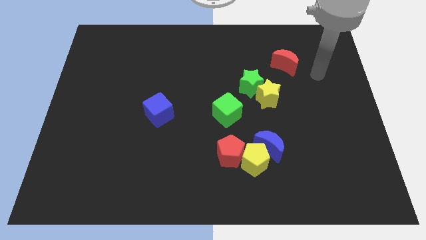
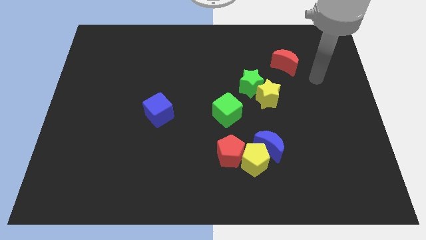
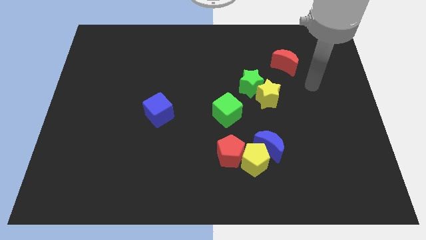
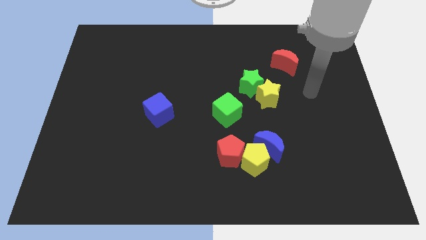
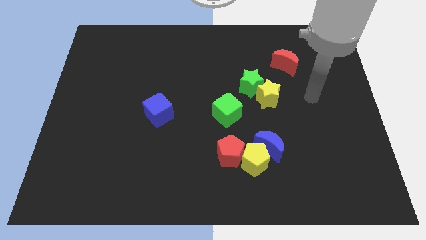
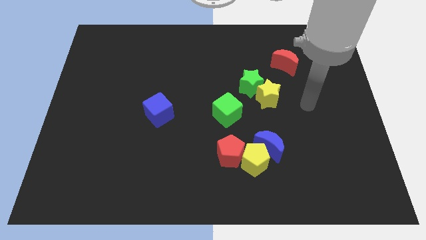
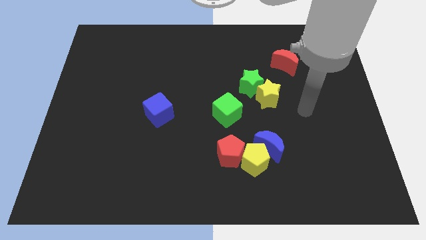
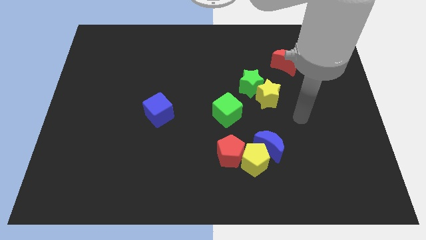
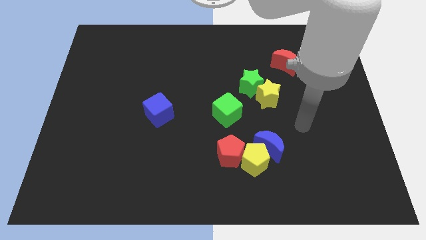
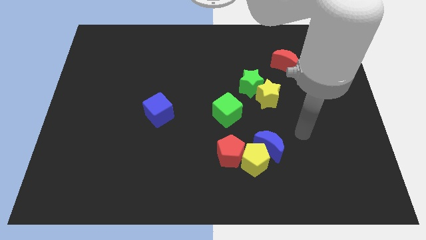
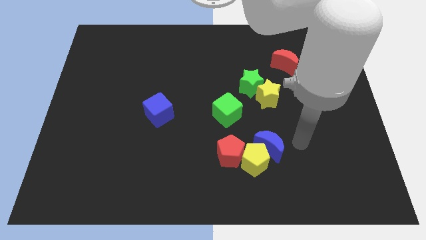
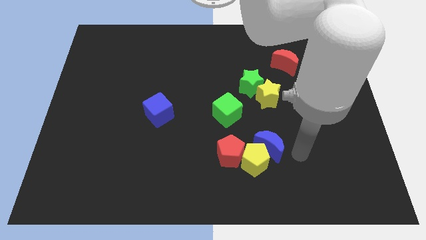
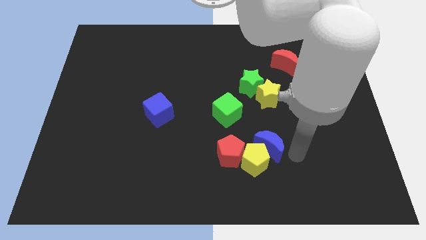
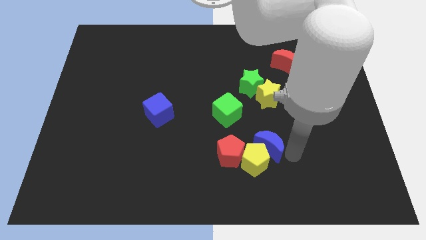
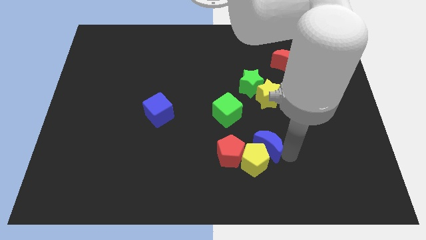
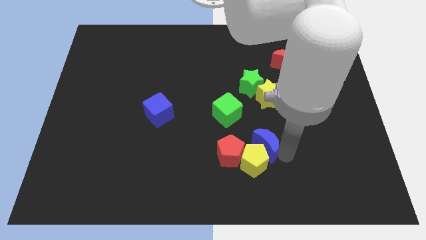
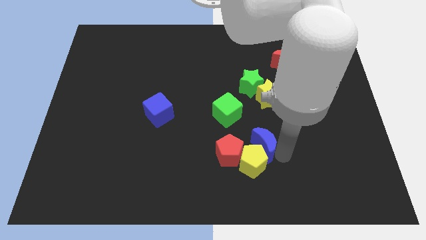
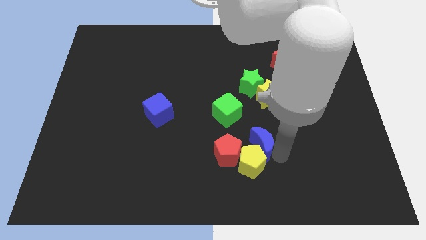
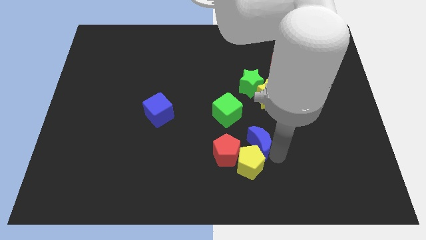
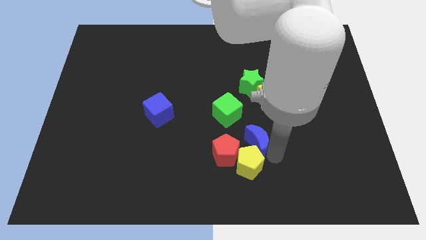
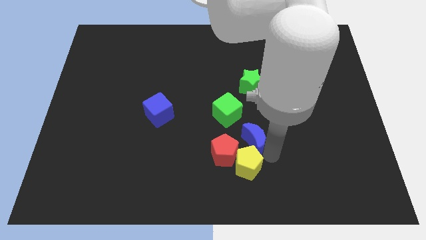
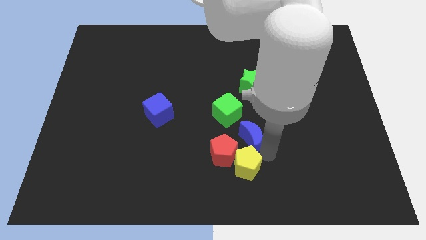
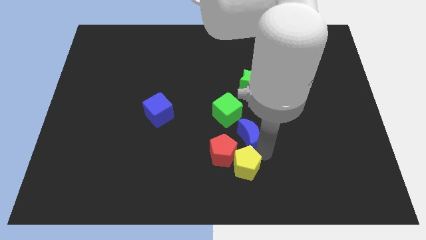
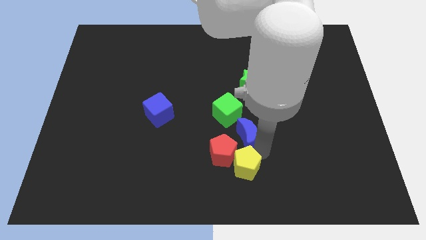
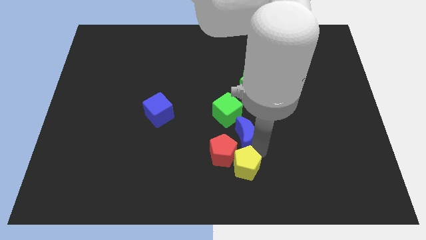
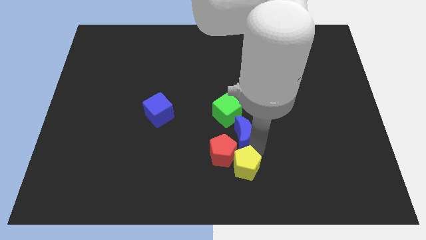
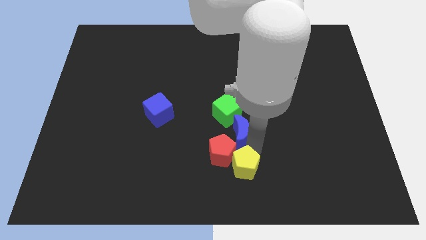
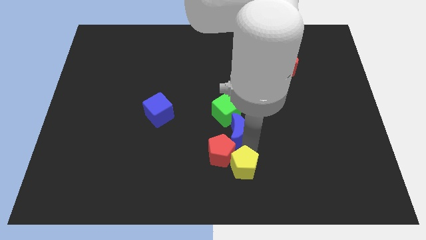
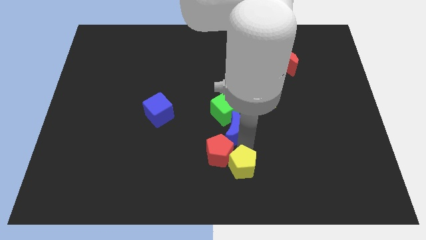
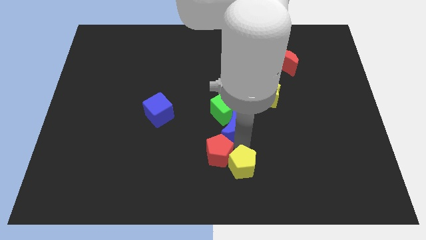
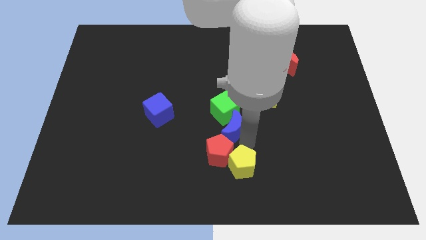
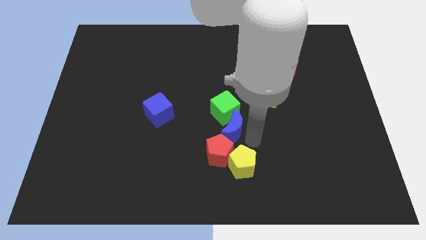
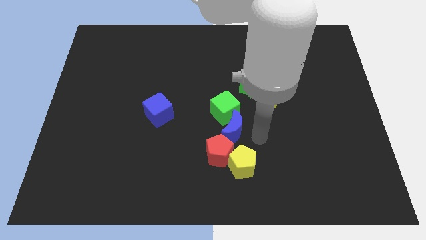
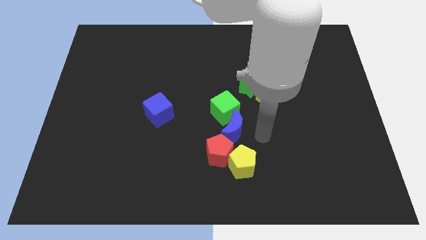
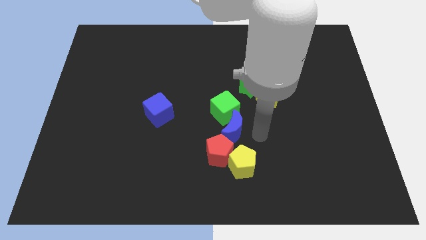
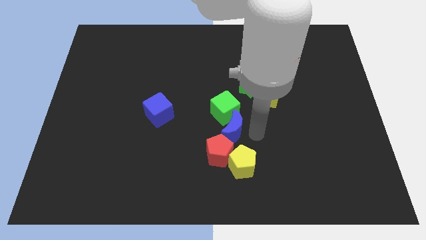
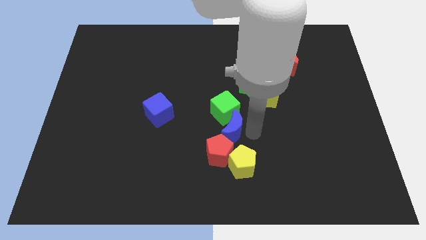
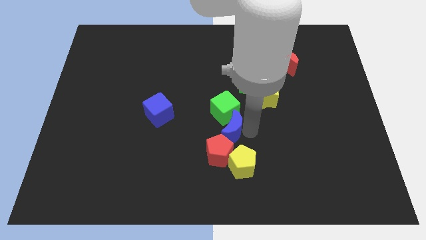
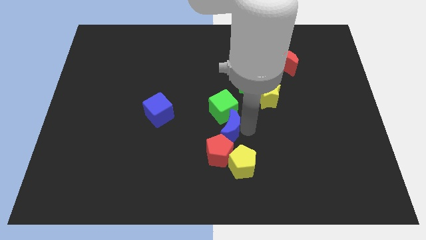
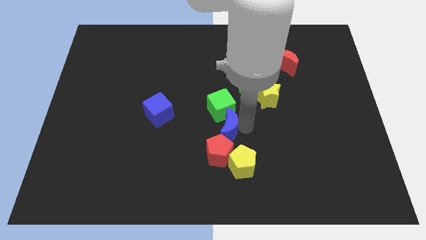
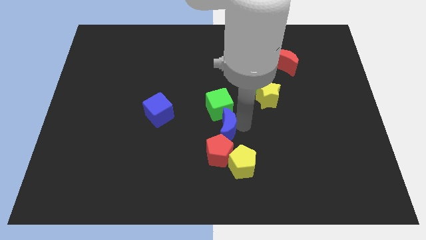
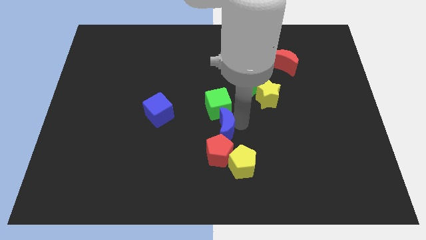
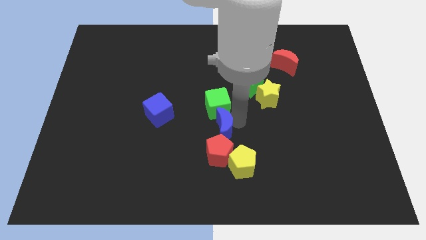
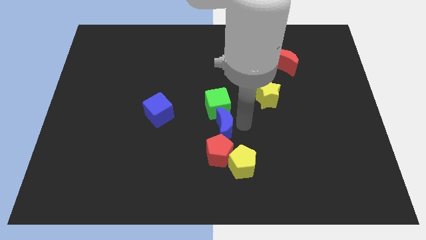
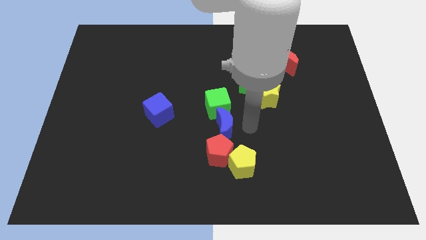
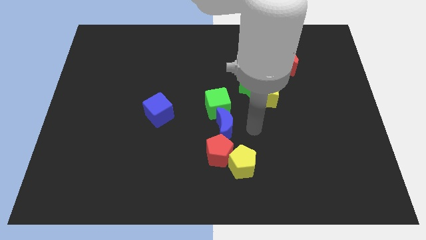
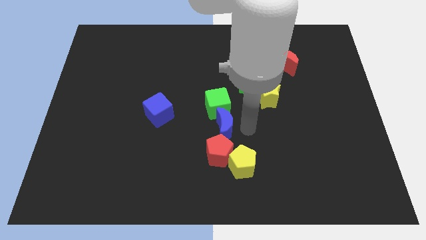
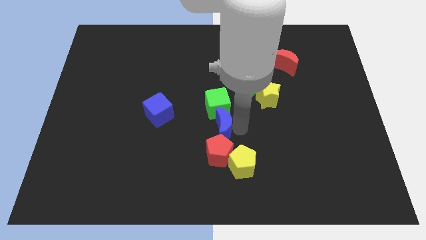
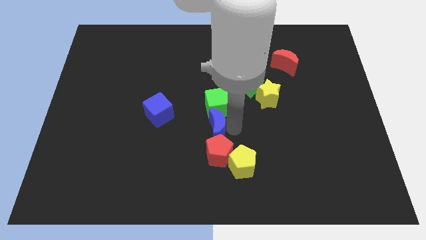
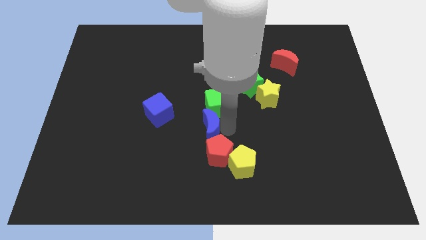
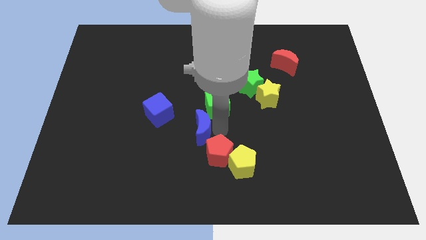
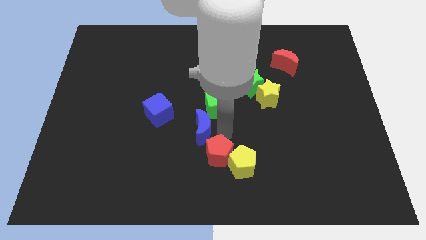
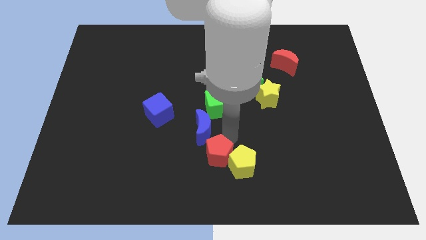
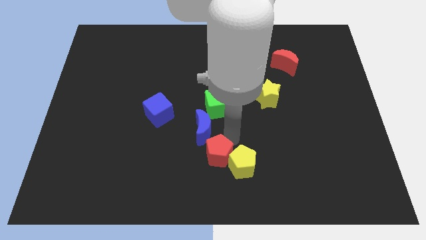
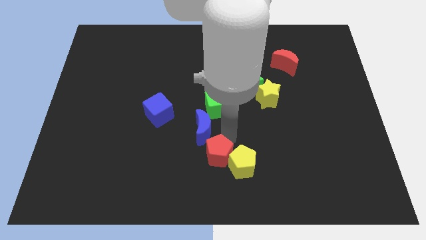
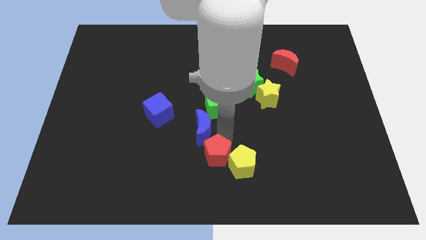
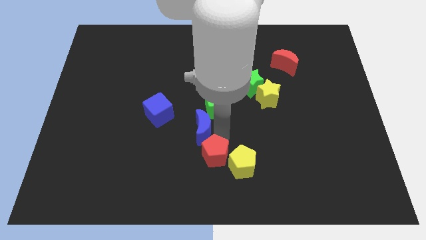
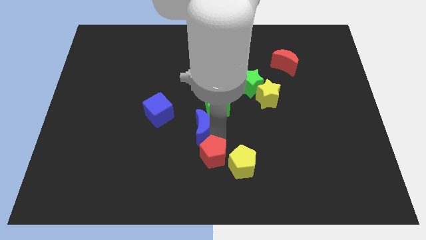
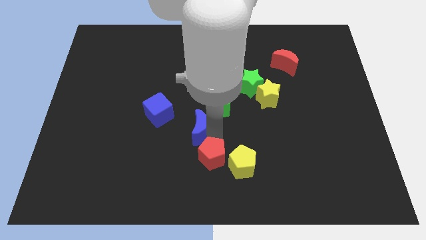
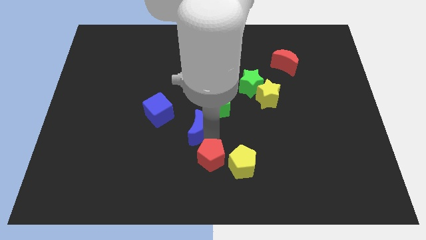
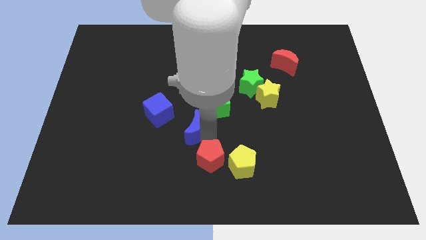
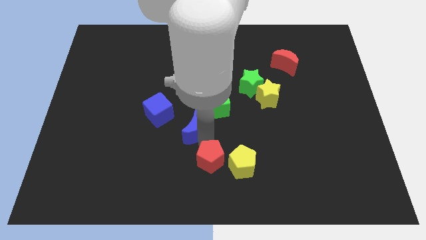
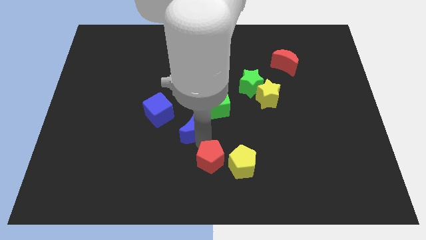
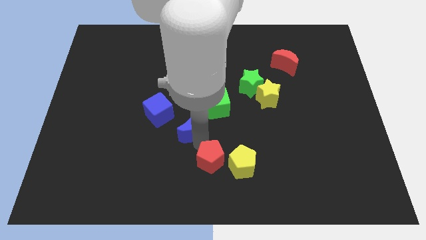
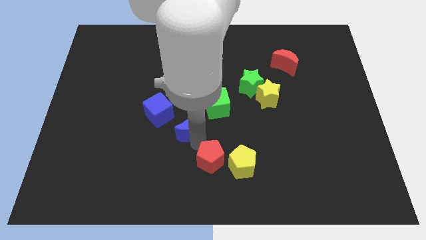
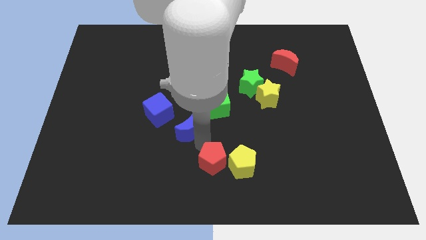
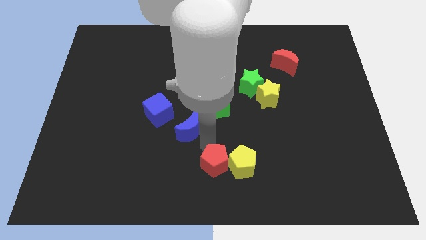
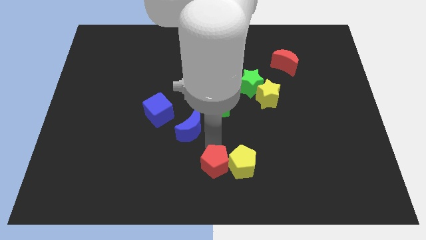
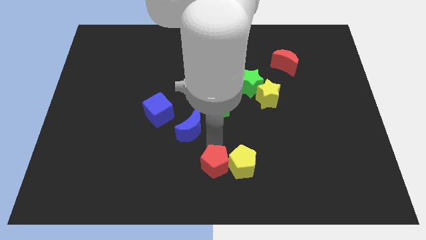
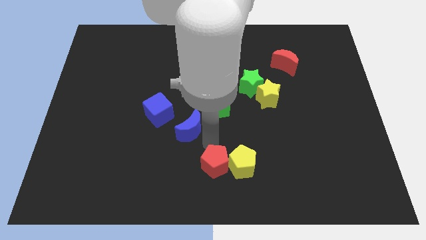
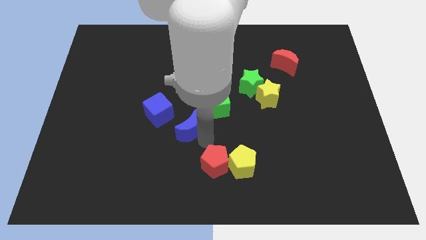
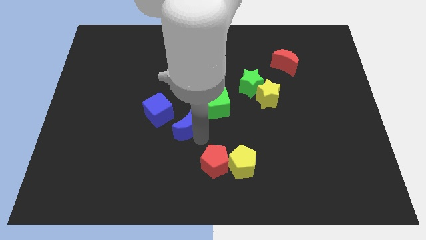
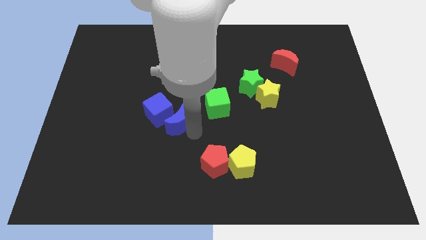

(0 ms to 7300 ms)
put the blue moon to the blue cube

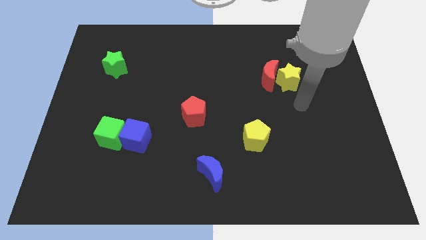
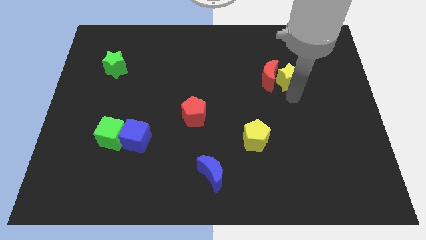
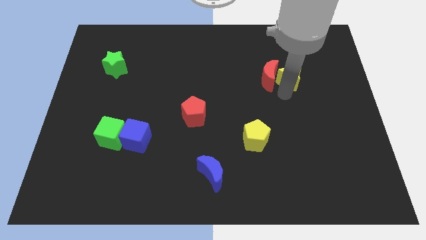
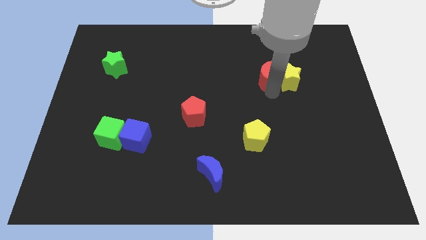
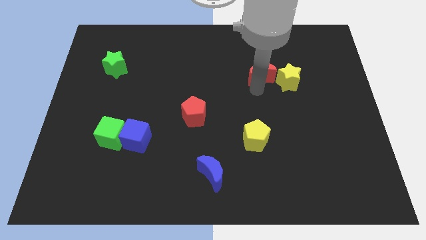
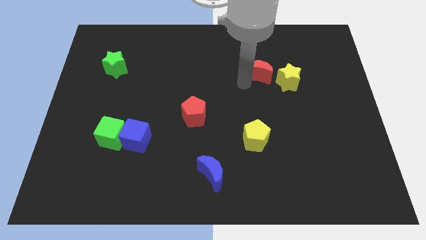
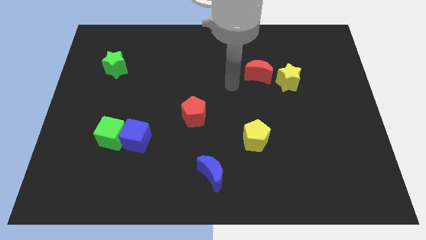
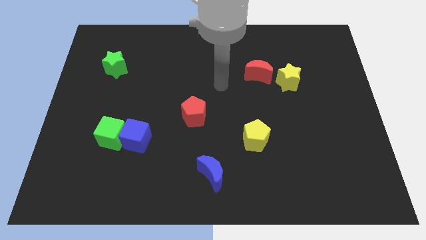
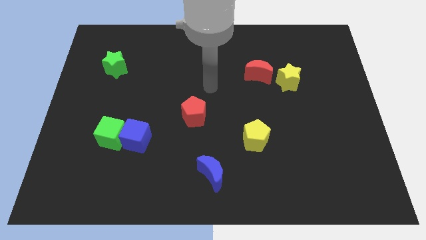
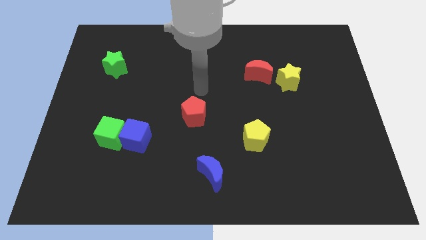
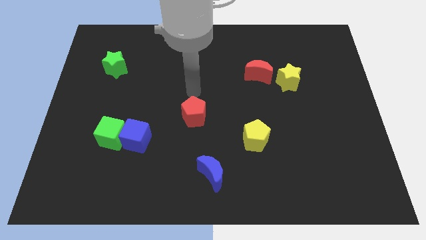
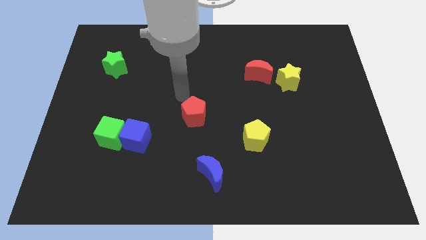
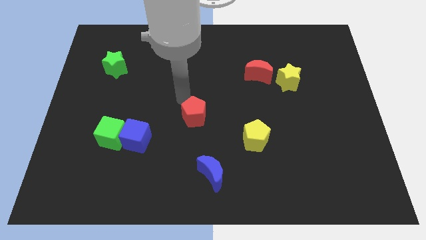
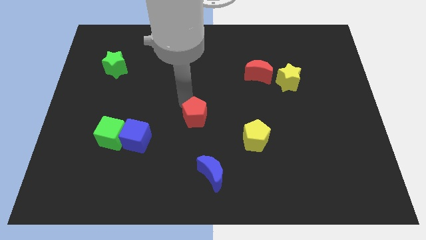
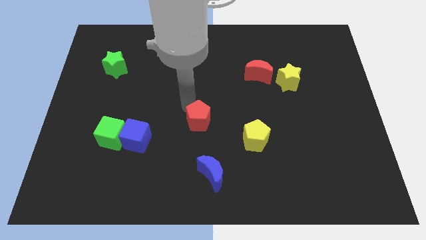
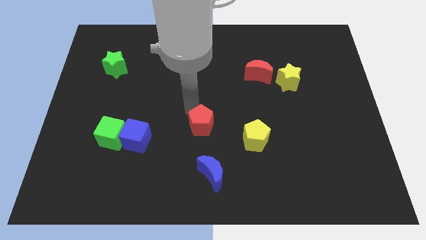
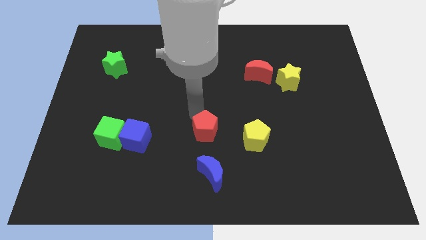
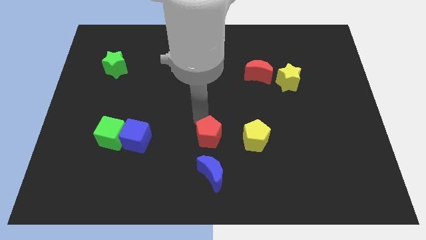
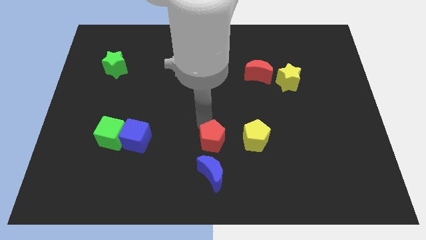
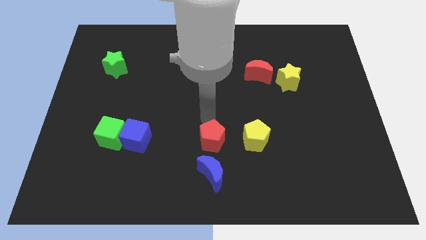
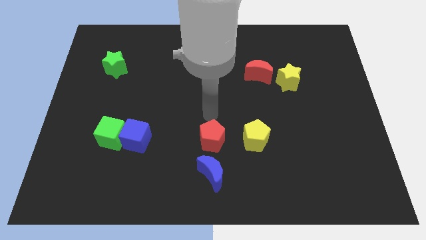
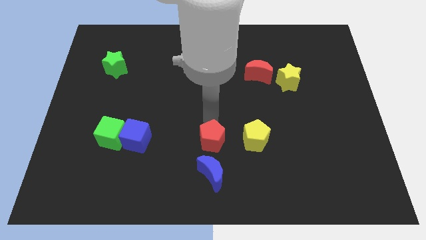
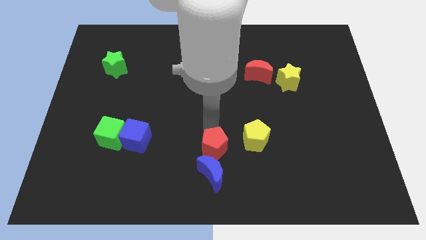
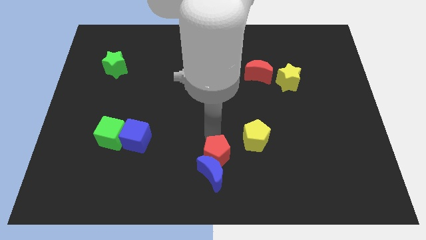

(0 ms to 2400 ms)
move the red pentagon next to the blue moon
